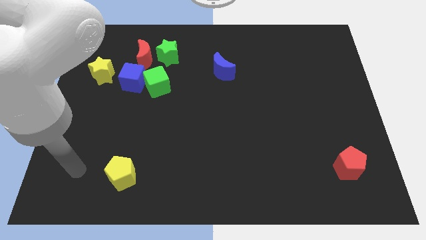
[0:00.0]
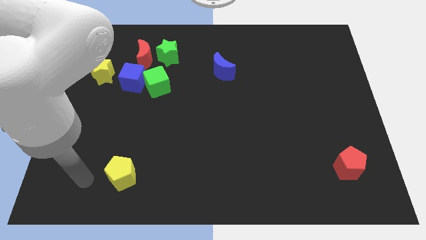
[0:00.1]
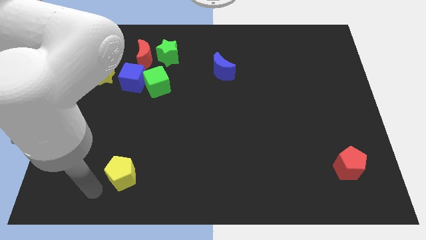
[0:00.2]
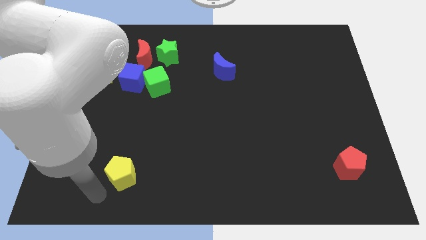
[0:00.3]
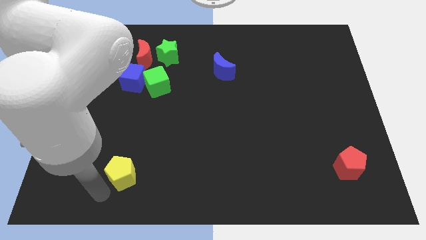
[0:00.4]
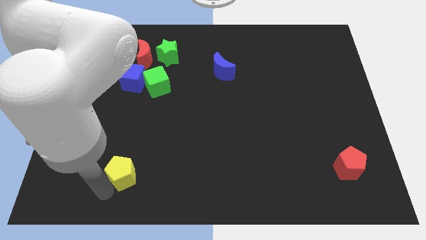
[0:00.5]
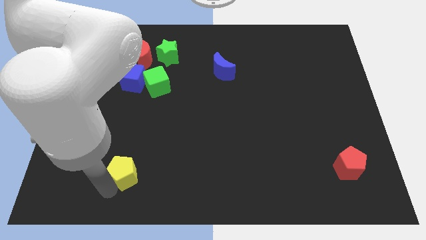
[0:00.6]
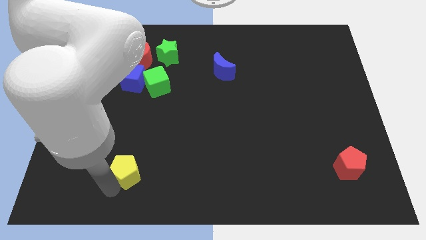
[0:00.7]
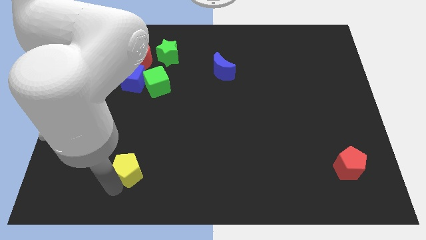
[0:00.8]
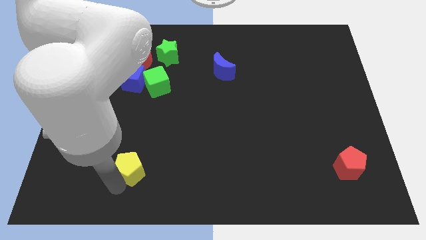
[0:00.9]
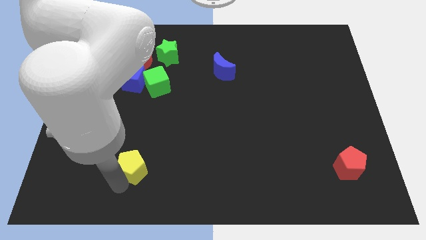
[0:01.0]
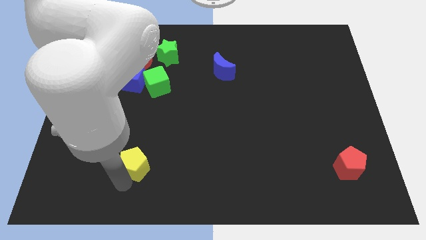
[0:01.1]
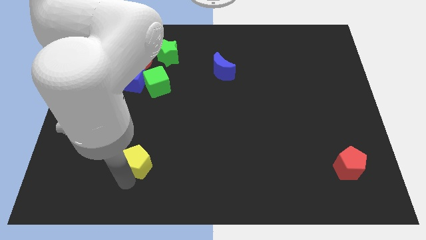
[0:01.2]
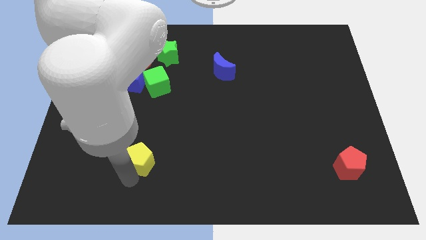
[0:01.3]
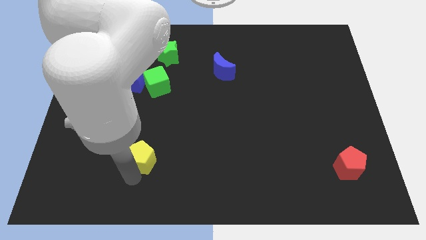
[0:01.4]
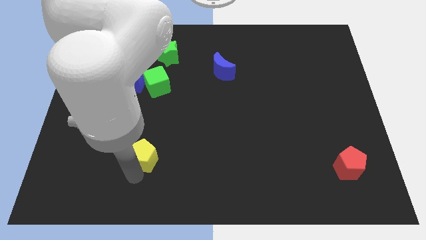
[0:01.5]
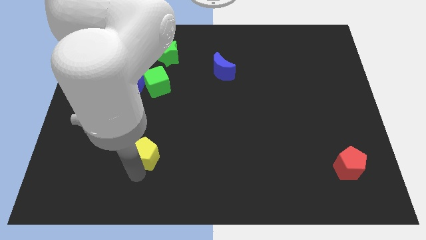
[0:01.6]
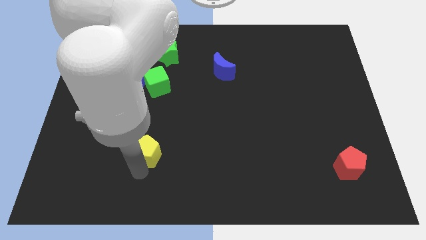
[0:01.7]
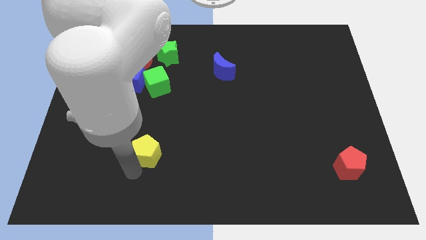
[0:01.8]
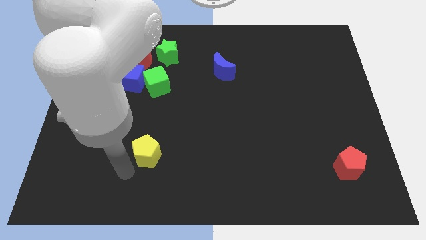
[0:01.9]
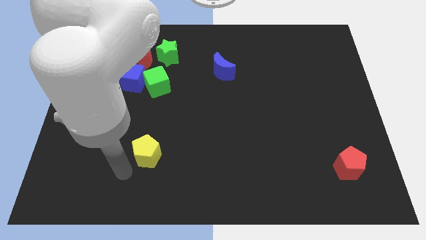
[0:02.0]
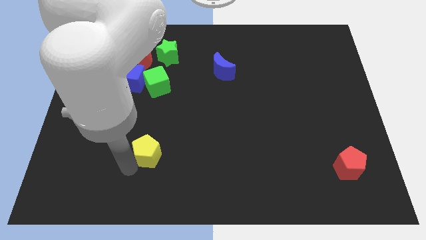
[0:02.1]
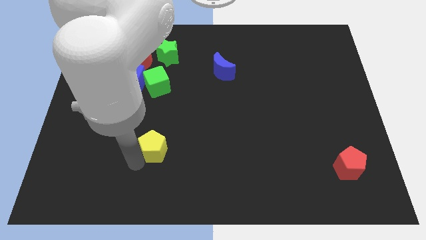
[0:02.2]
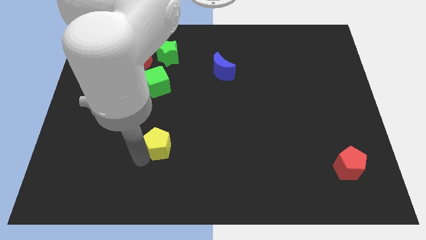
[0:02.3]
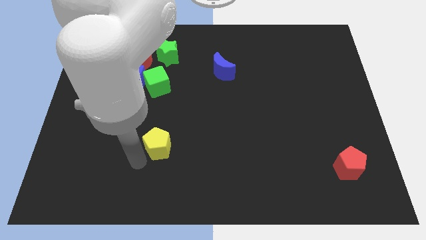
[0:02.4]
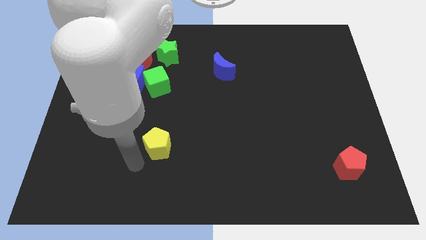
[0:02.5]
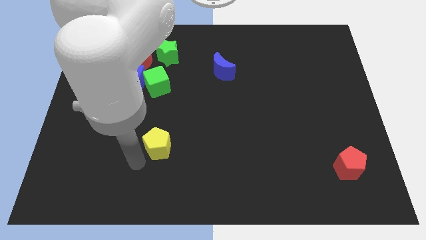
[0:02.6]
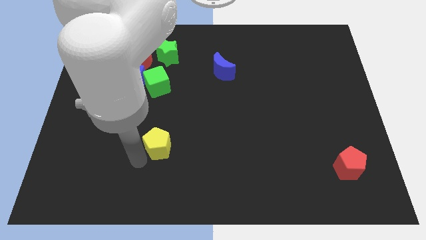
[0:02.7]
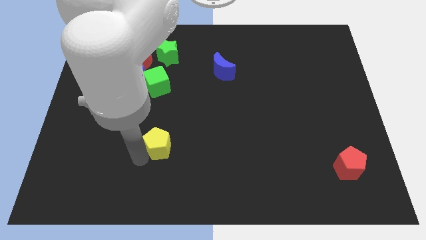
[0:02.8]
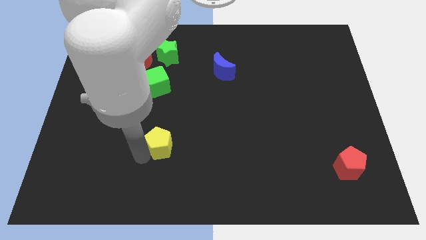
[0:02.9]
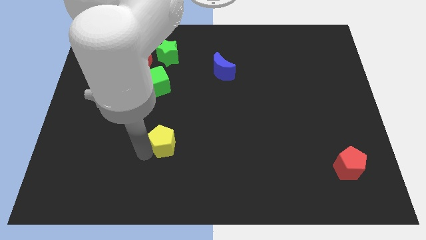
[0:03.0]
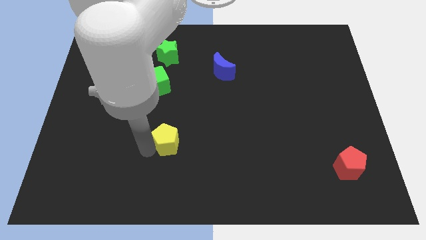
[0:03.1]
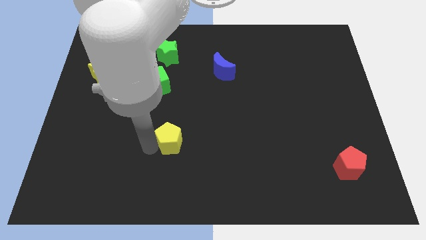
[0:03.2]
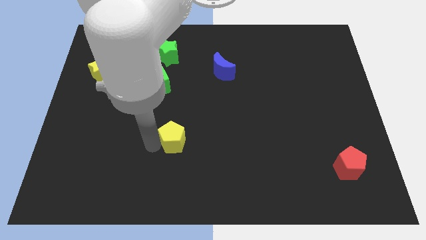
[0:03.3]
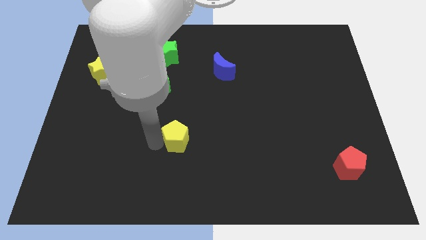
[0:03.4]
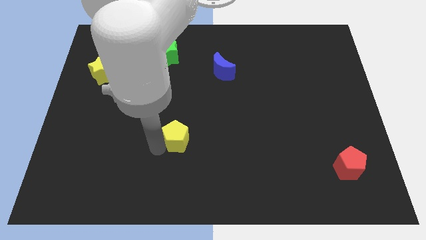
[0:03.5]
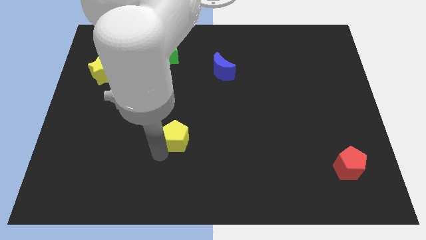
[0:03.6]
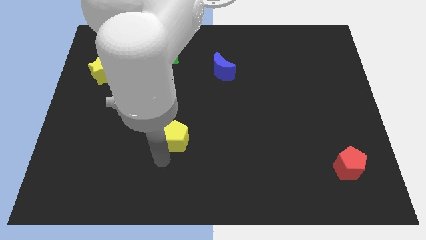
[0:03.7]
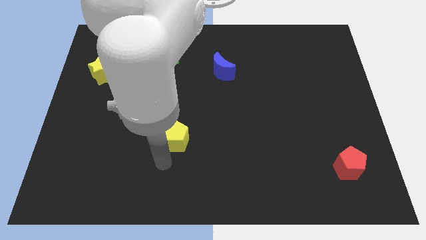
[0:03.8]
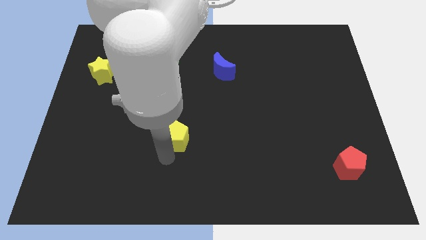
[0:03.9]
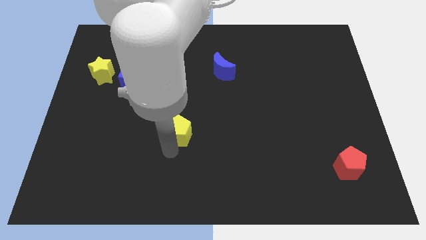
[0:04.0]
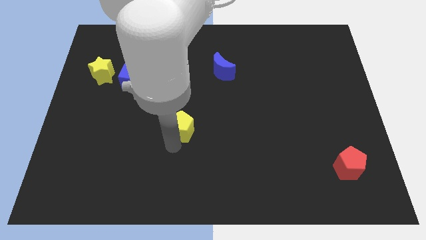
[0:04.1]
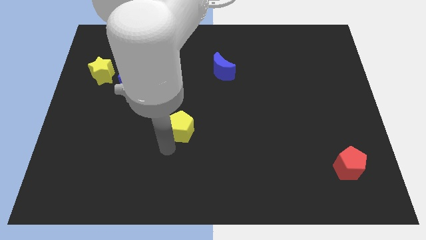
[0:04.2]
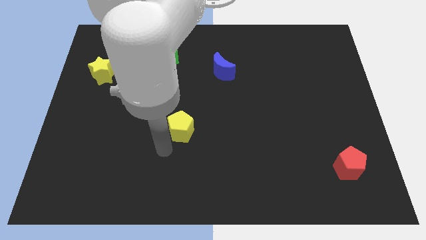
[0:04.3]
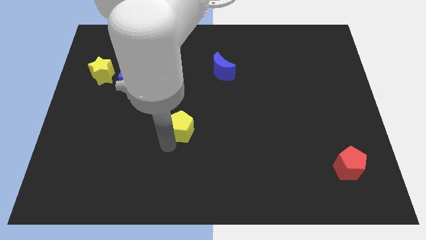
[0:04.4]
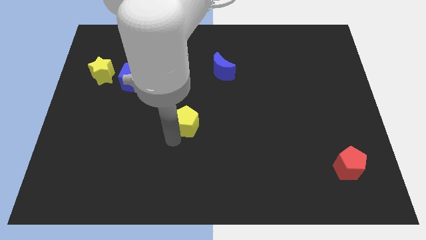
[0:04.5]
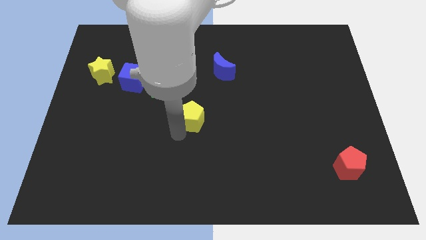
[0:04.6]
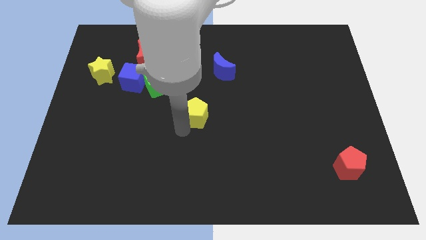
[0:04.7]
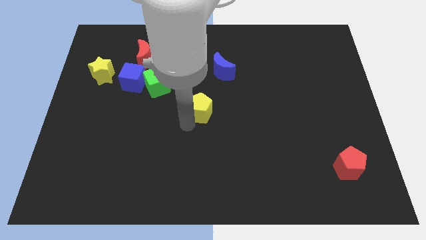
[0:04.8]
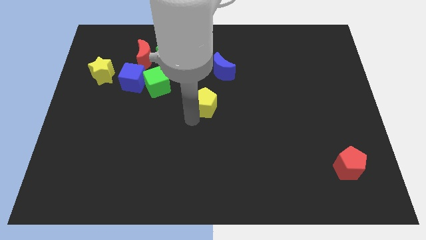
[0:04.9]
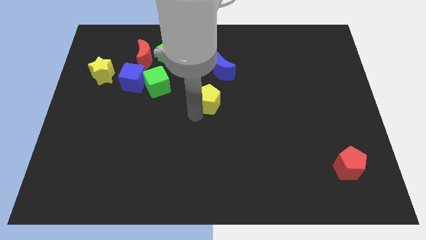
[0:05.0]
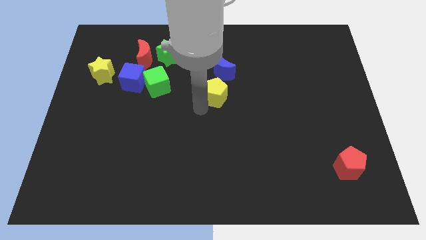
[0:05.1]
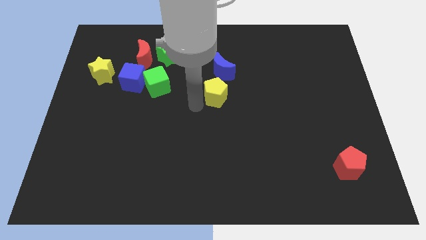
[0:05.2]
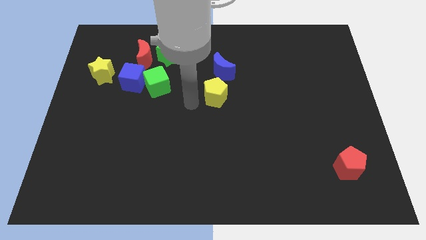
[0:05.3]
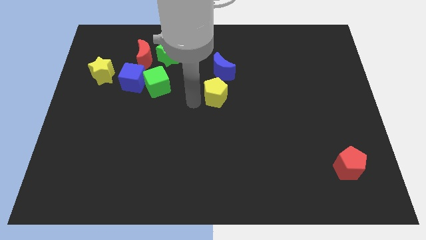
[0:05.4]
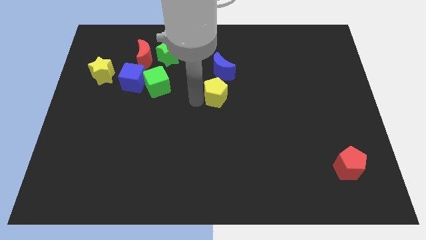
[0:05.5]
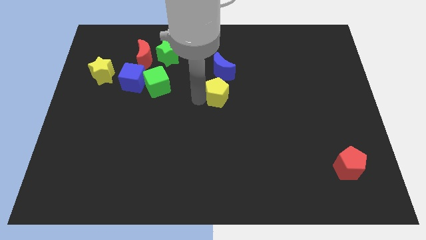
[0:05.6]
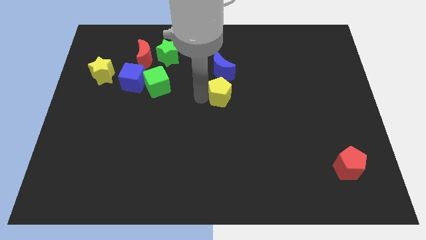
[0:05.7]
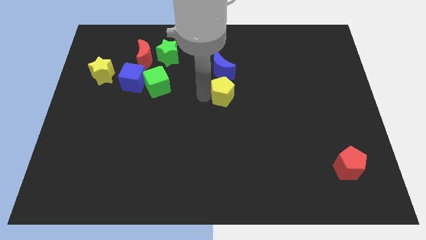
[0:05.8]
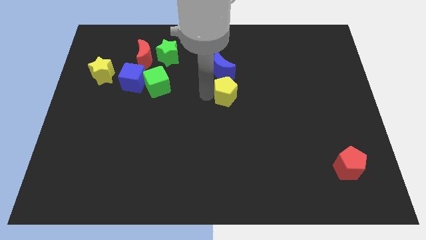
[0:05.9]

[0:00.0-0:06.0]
push the yellow pentagon to the bottom right of the blue moon

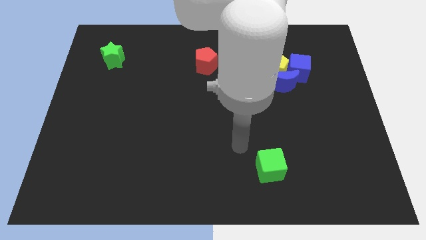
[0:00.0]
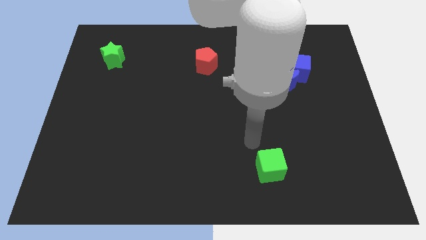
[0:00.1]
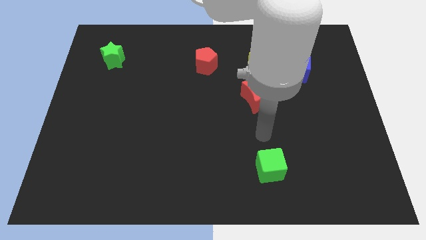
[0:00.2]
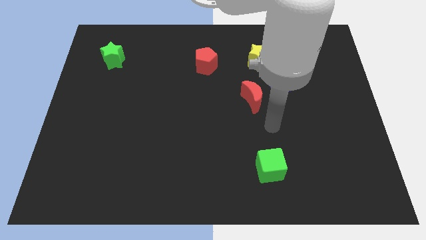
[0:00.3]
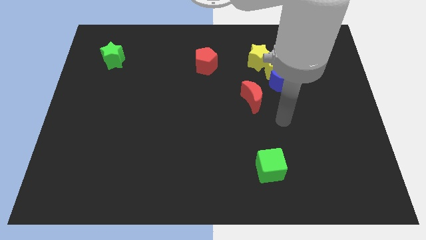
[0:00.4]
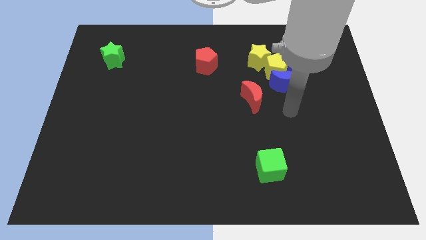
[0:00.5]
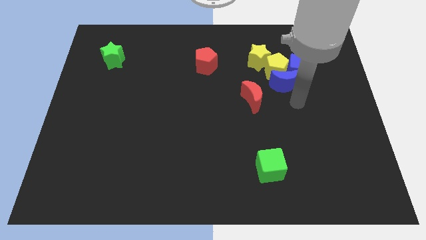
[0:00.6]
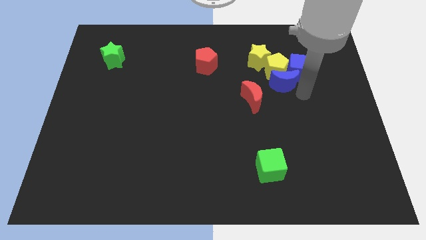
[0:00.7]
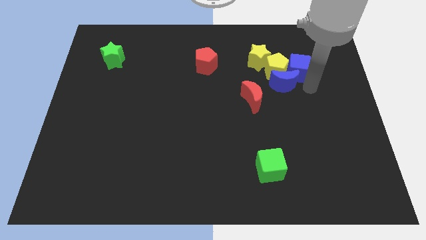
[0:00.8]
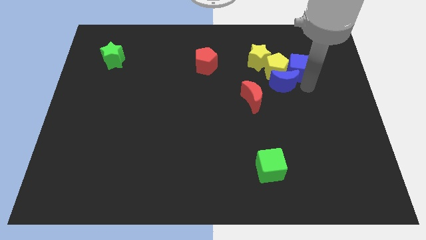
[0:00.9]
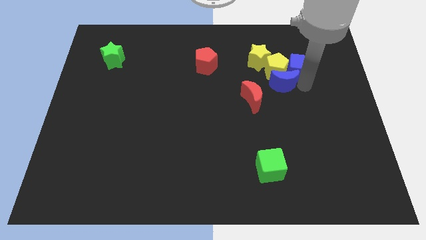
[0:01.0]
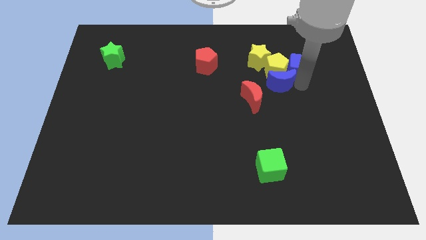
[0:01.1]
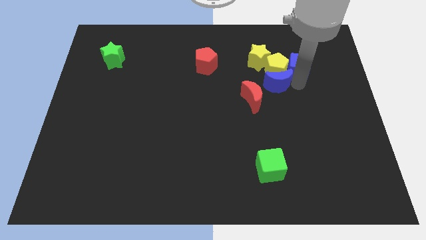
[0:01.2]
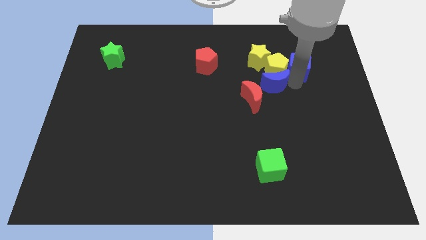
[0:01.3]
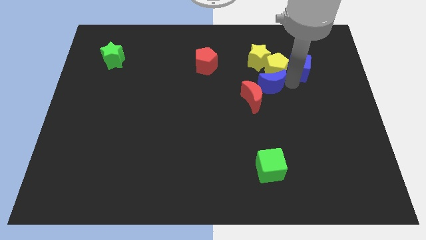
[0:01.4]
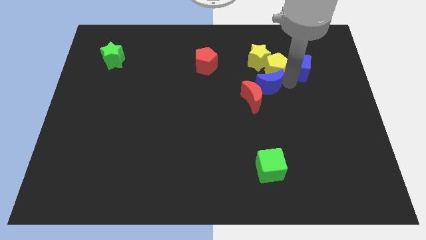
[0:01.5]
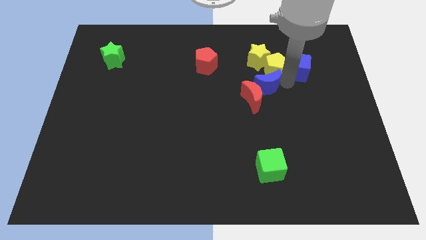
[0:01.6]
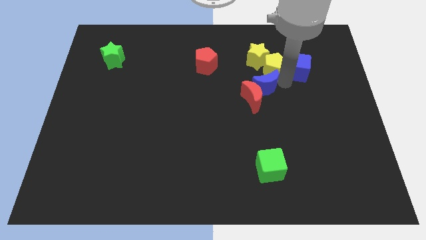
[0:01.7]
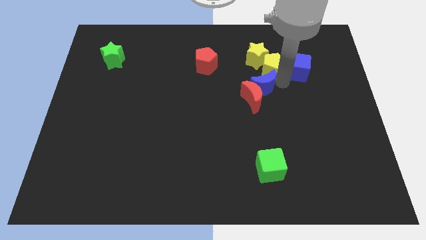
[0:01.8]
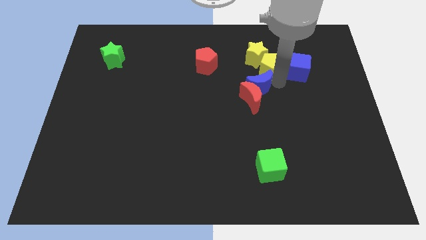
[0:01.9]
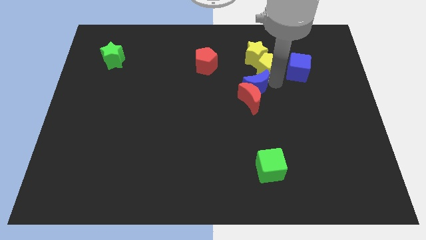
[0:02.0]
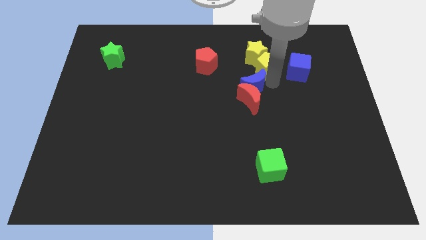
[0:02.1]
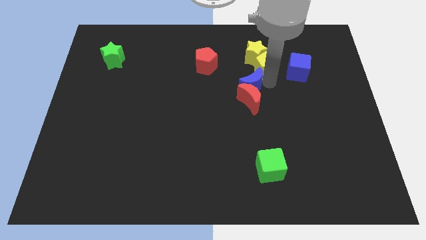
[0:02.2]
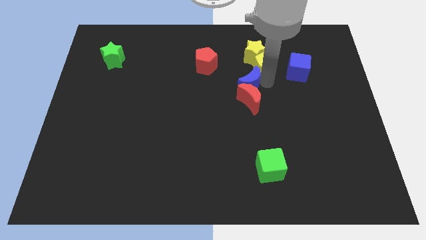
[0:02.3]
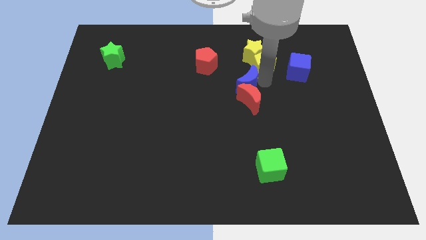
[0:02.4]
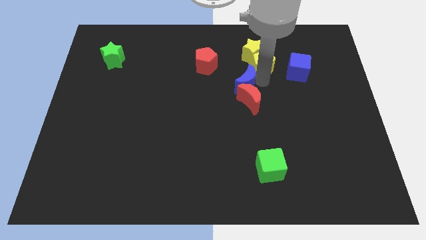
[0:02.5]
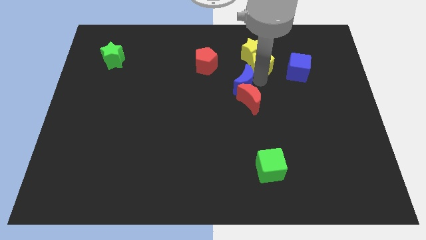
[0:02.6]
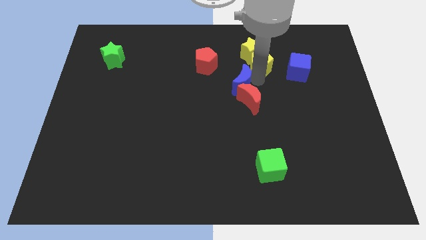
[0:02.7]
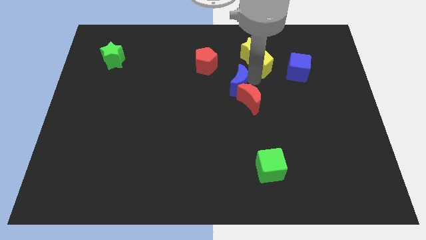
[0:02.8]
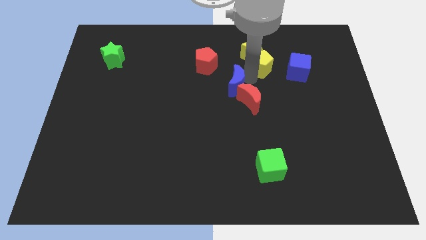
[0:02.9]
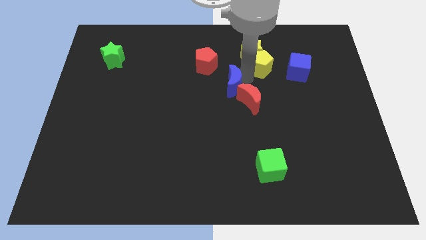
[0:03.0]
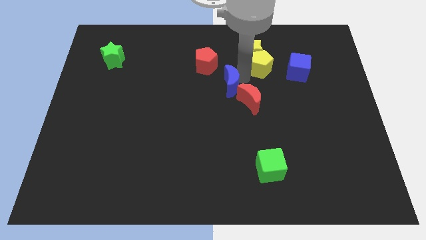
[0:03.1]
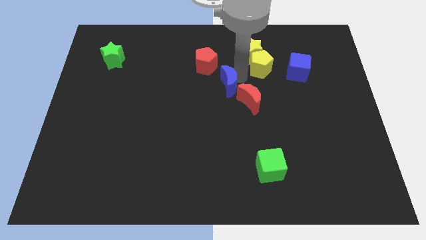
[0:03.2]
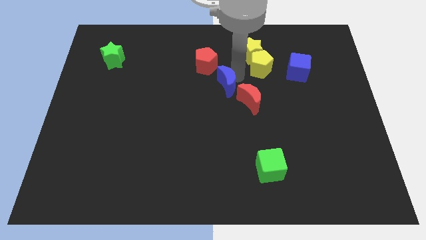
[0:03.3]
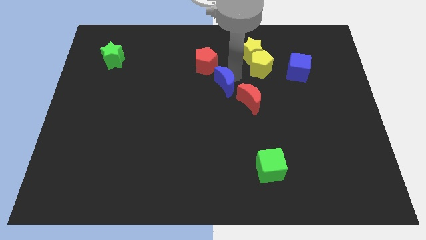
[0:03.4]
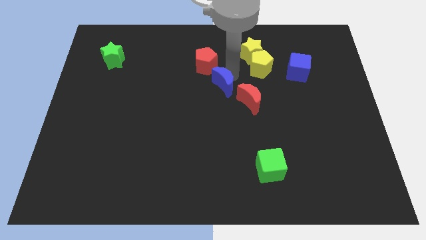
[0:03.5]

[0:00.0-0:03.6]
move the blue moon to the bottom side of the red pentagon
